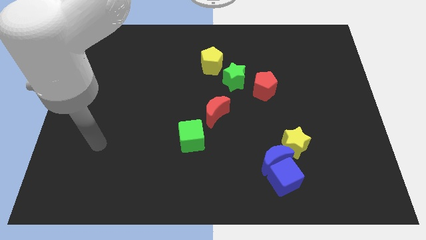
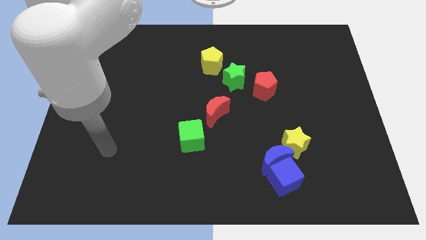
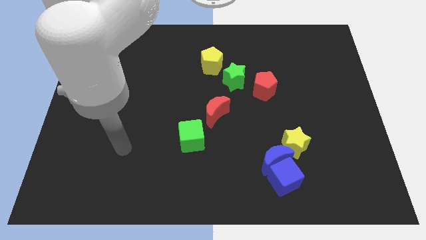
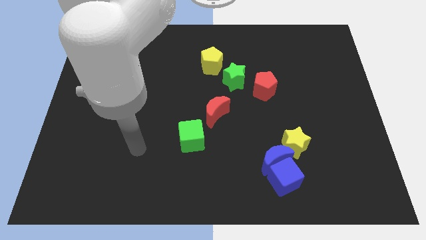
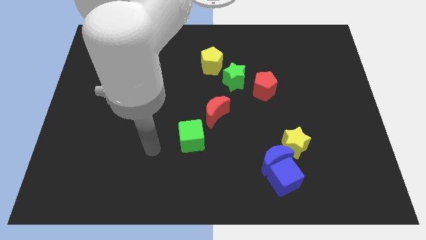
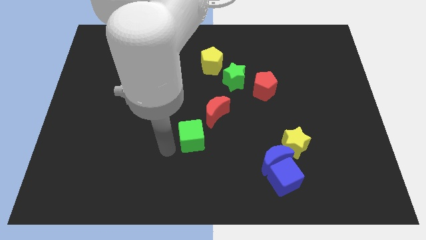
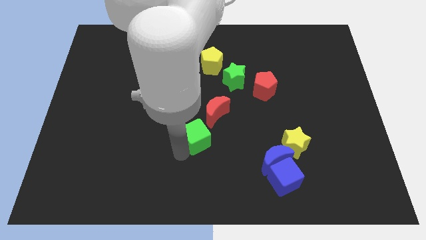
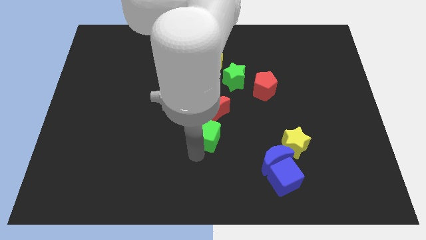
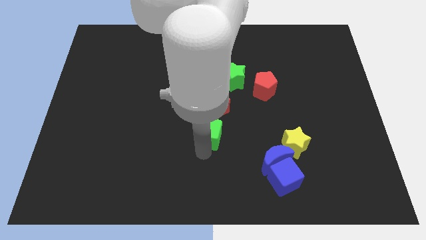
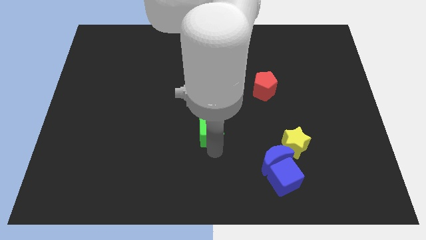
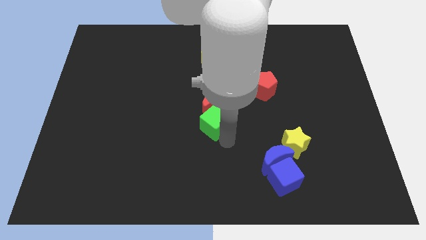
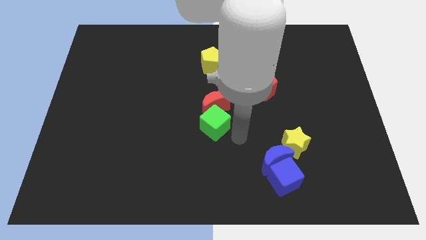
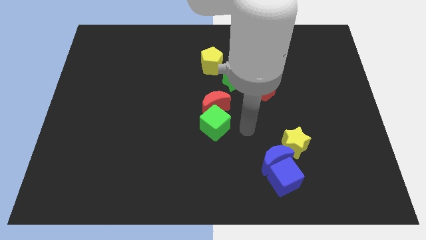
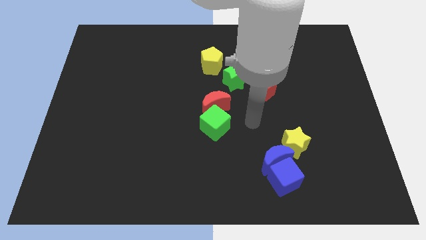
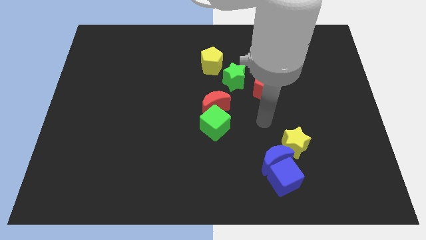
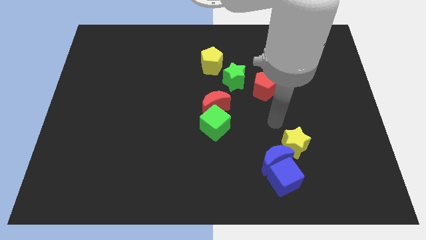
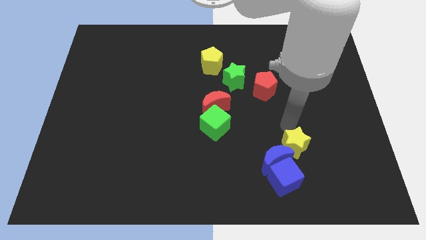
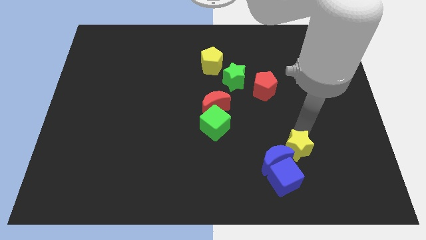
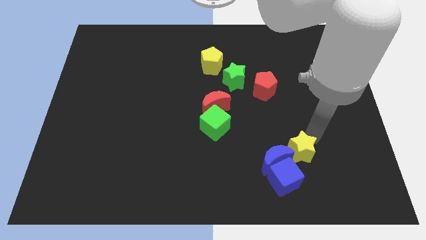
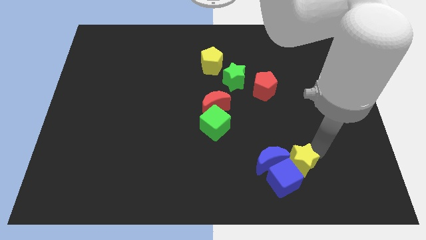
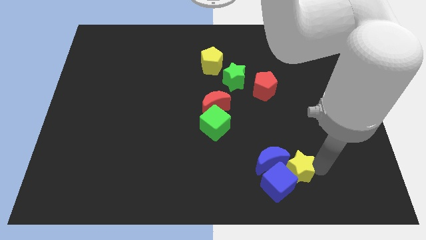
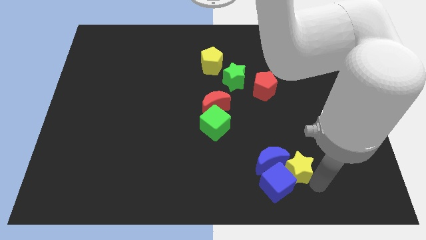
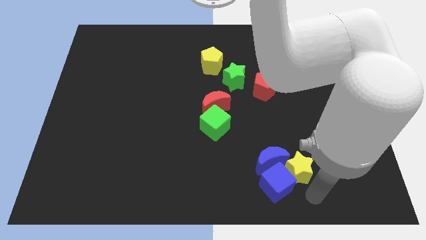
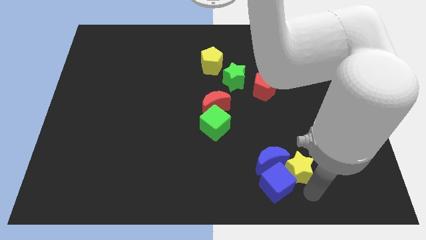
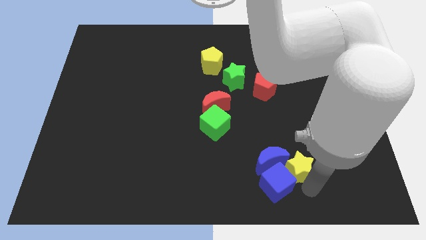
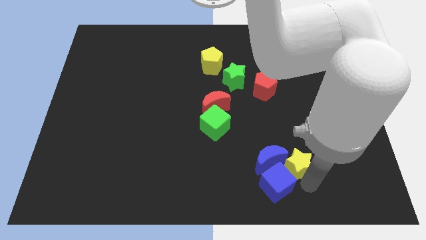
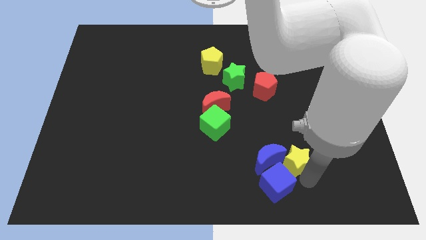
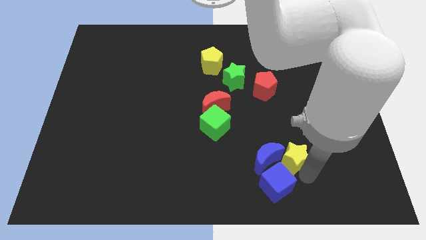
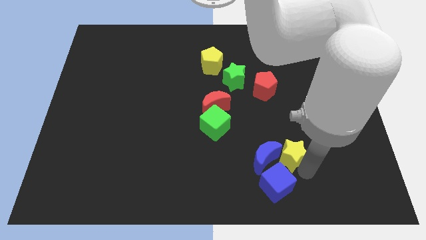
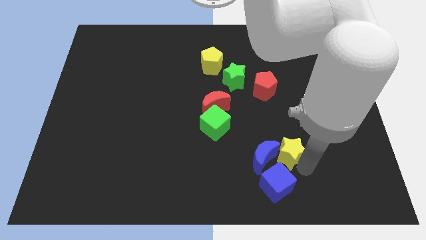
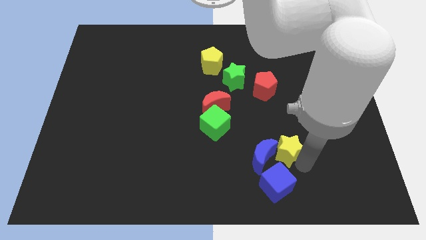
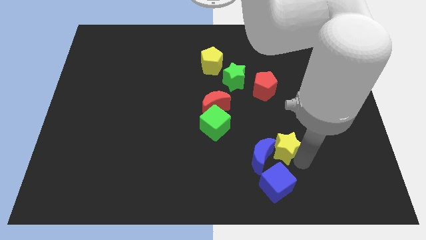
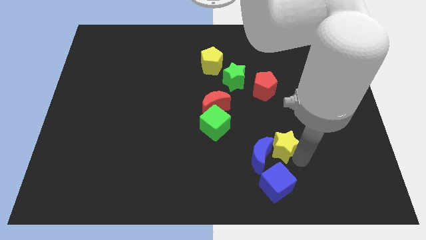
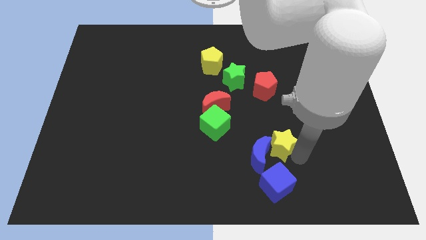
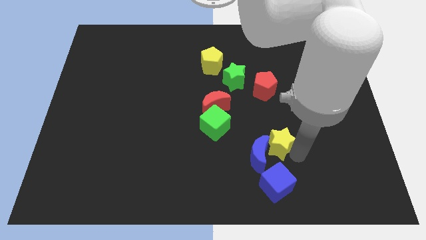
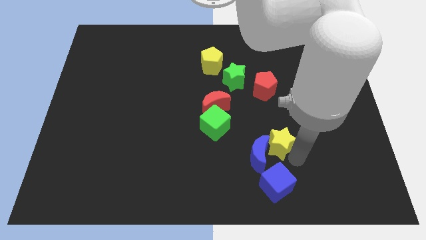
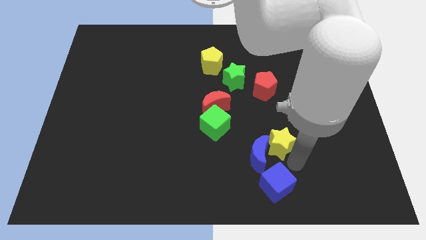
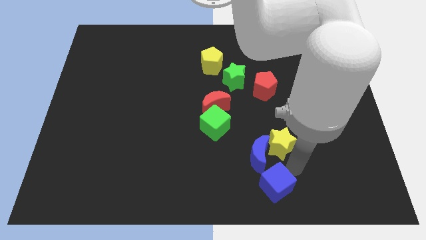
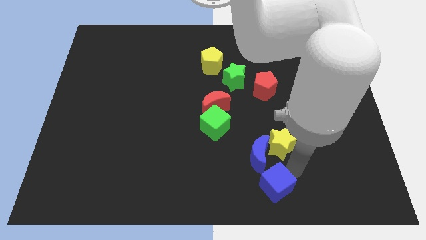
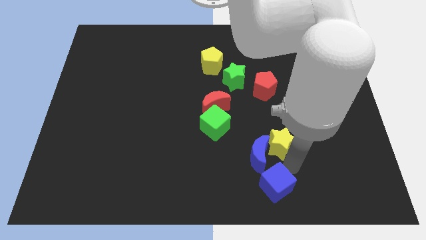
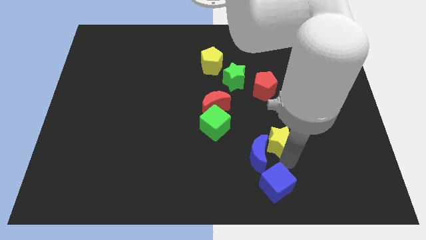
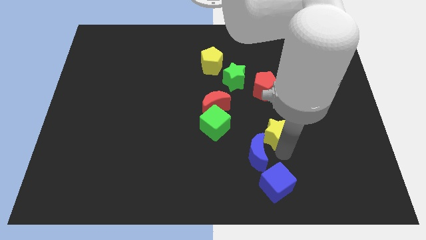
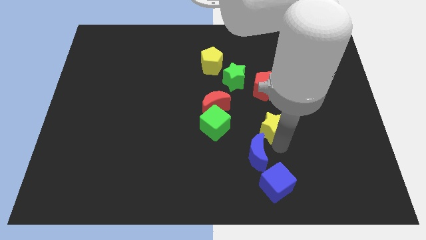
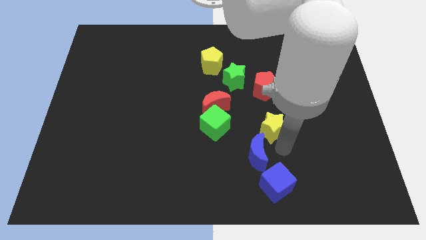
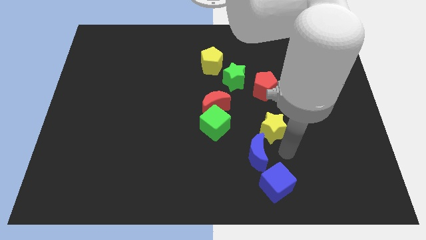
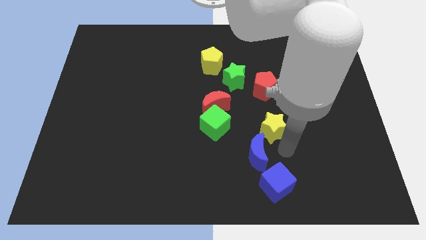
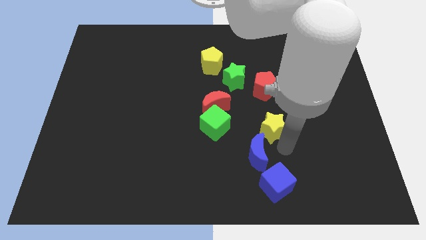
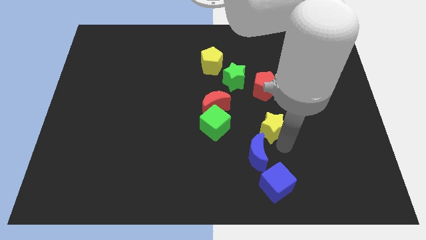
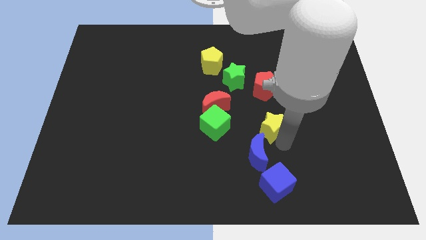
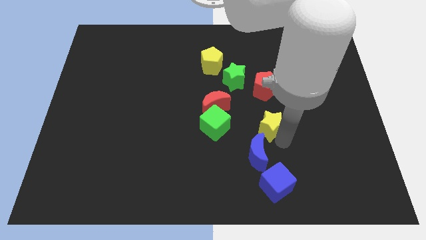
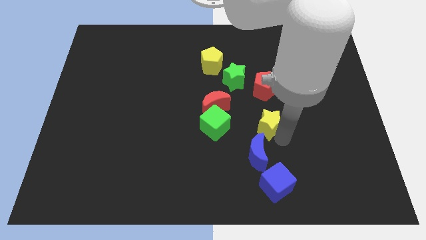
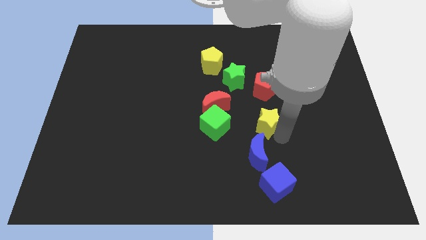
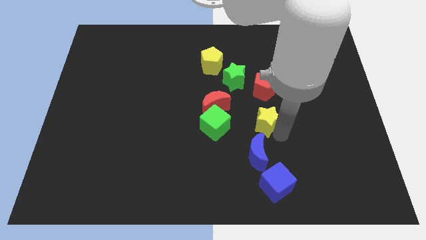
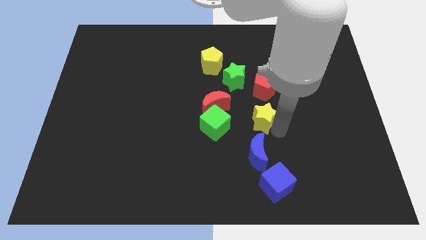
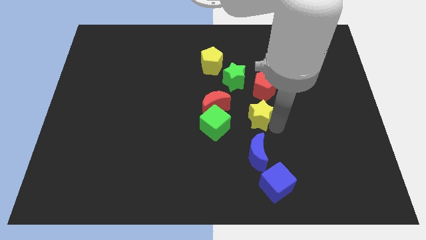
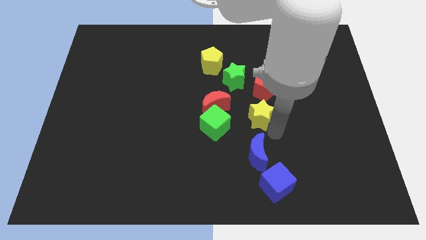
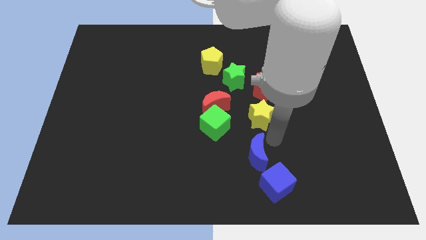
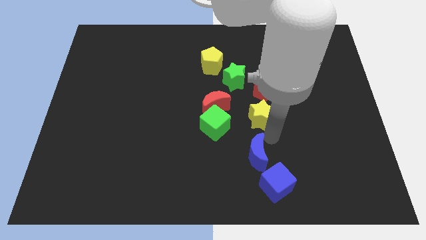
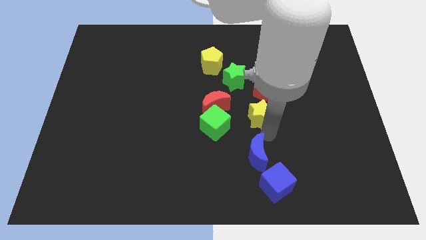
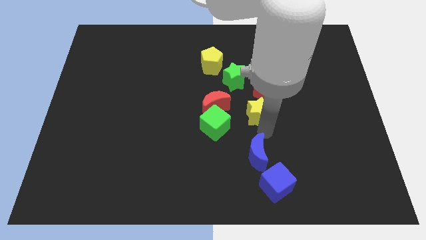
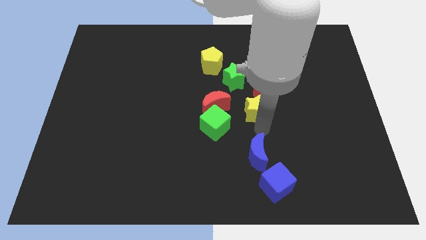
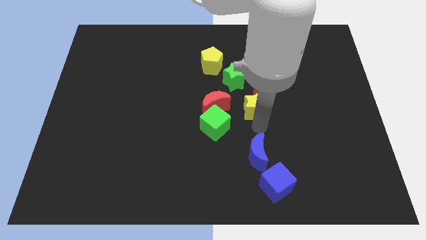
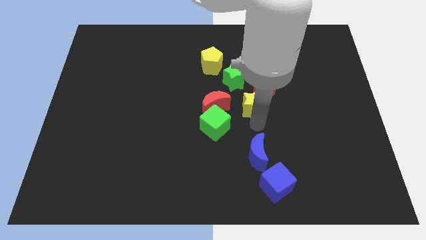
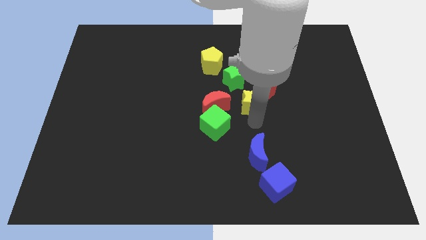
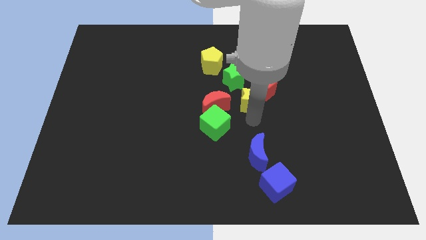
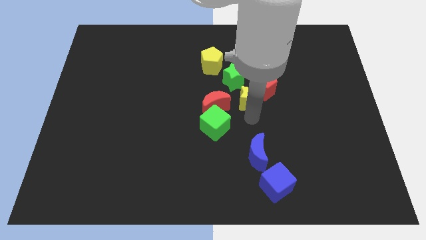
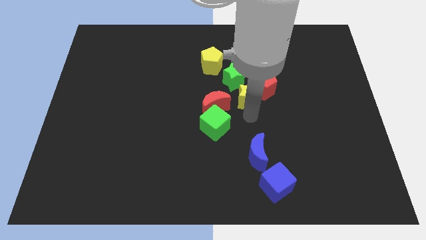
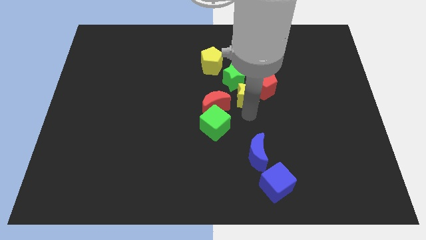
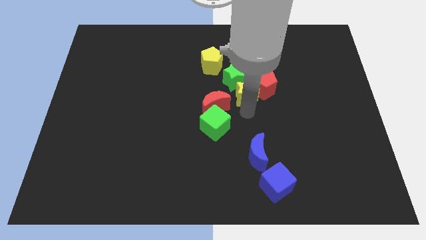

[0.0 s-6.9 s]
slide the yellow star close to the green star

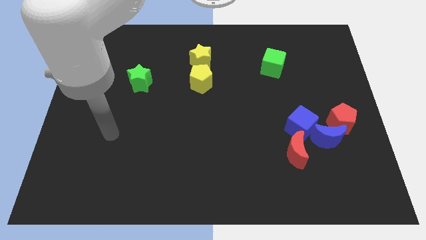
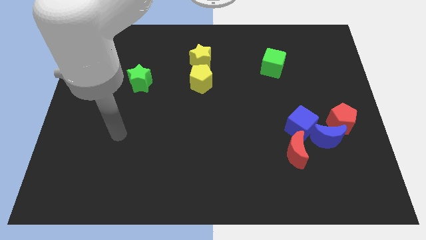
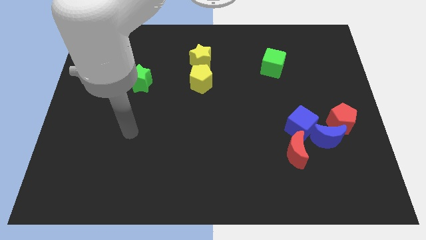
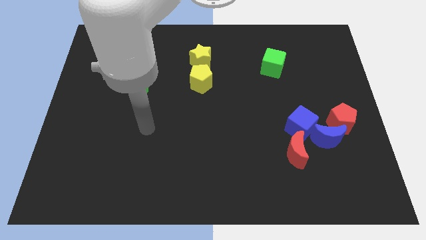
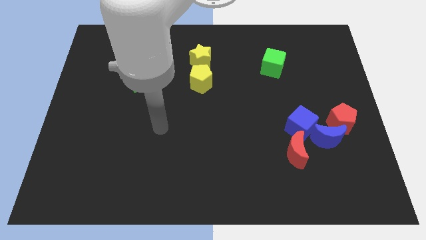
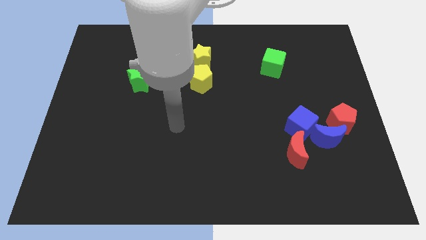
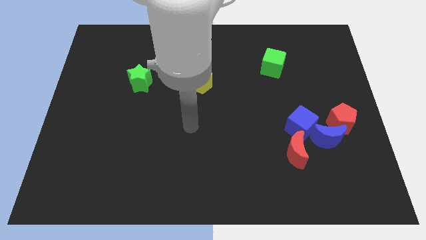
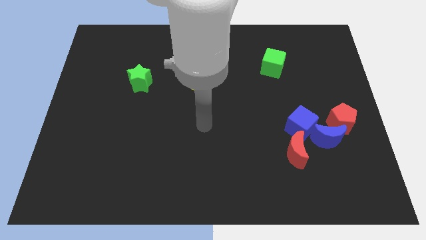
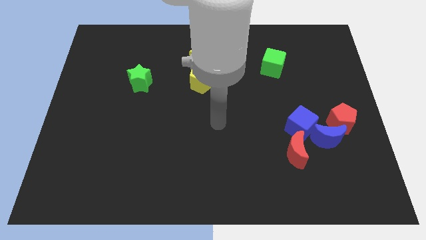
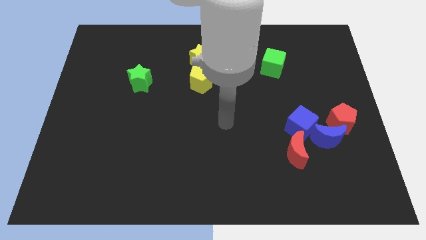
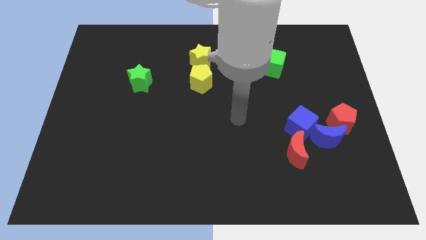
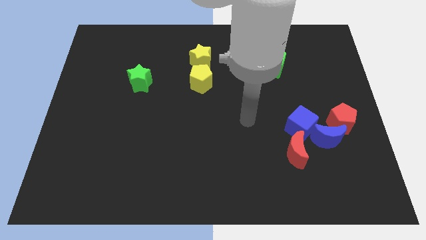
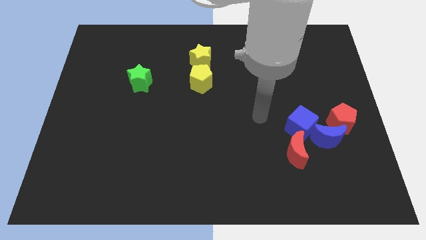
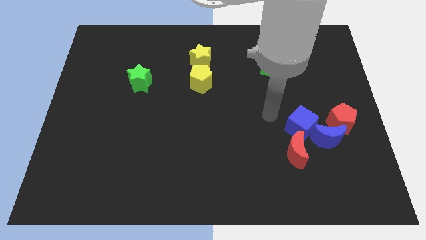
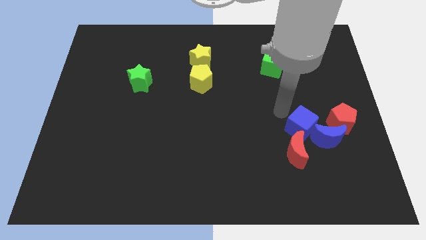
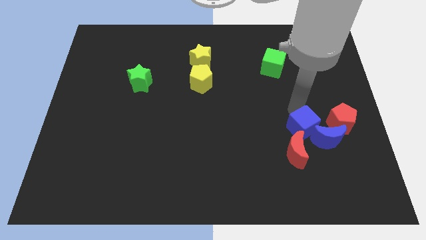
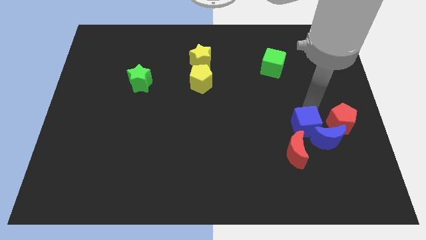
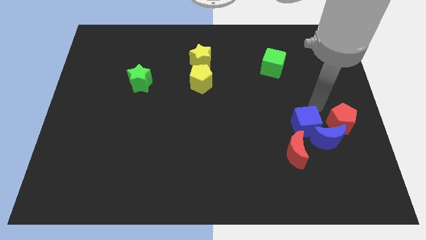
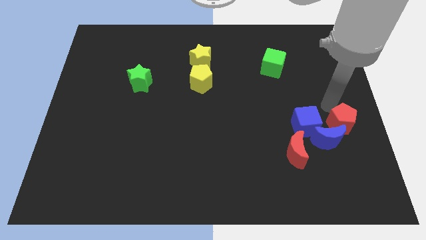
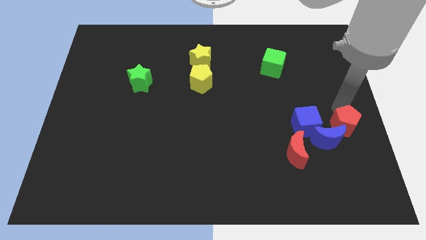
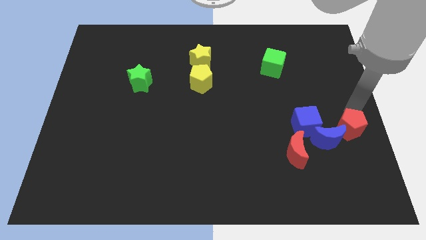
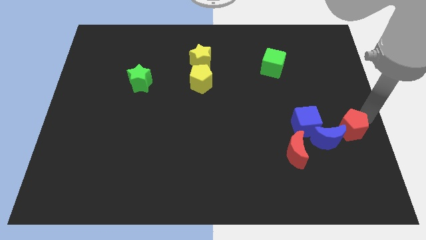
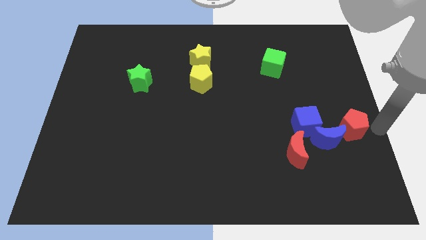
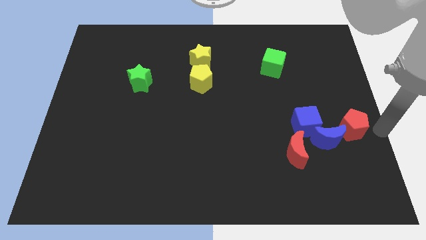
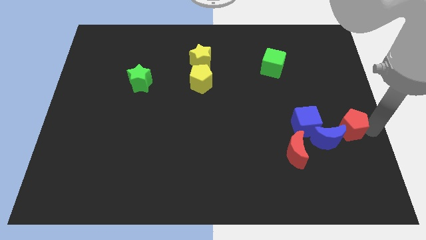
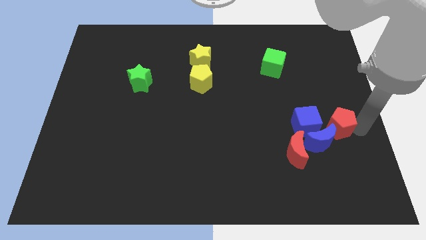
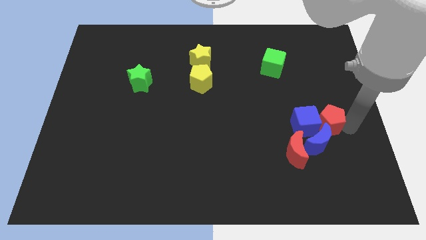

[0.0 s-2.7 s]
put the red pentagon to the blue cube
